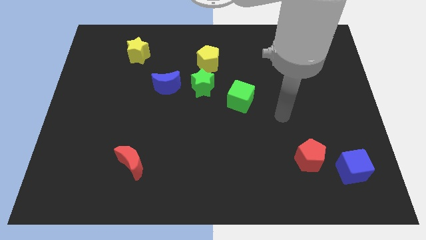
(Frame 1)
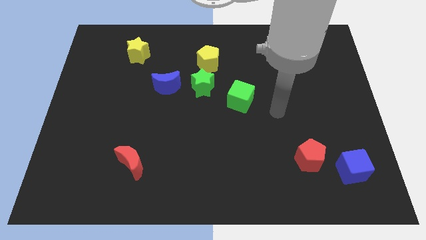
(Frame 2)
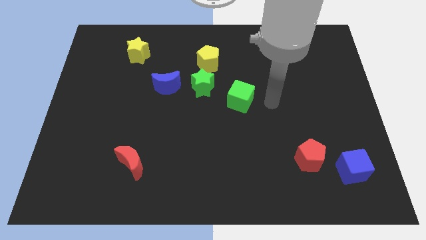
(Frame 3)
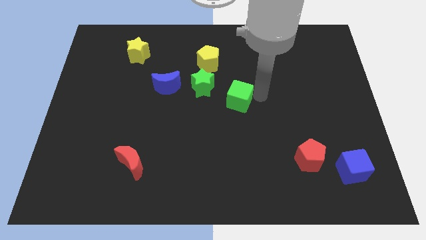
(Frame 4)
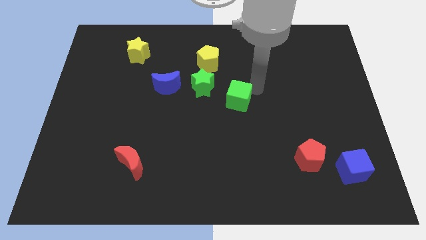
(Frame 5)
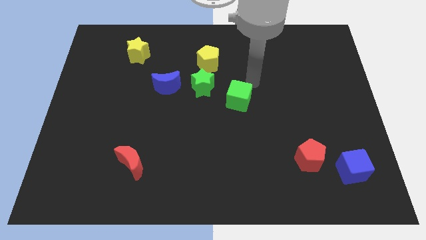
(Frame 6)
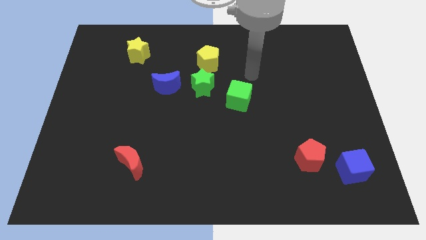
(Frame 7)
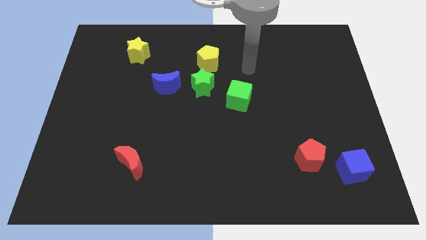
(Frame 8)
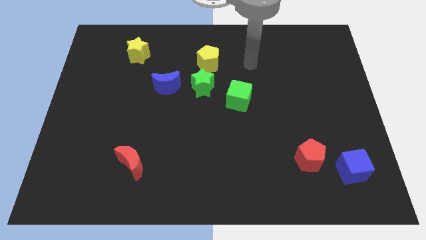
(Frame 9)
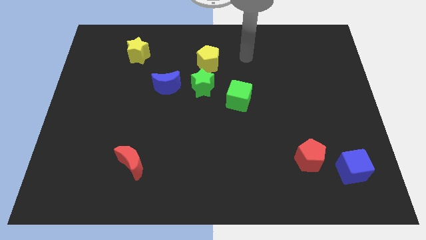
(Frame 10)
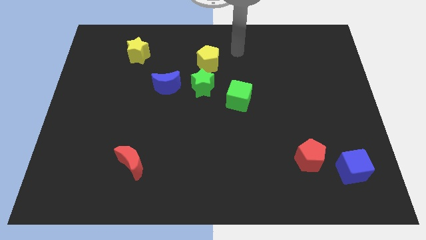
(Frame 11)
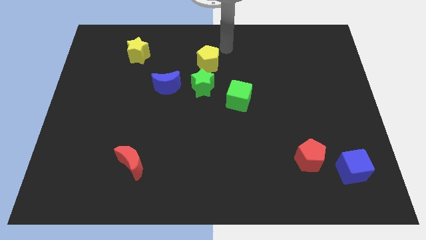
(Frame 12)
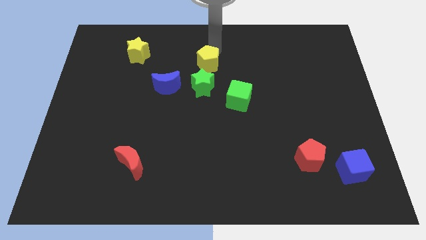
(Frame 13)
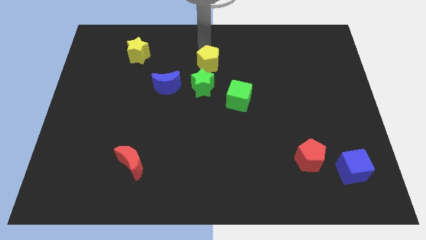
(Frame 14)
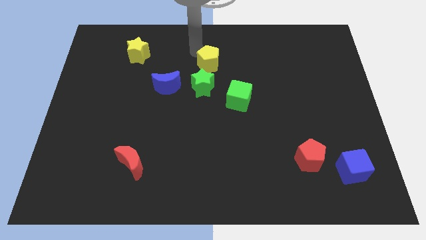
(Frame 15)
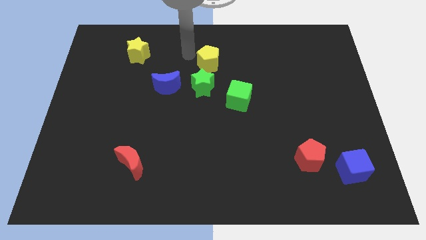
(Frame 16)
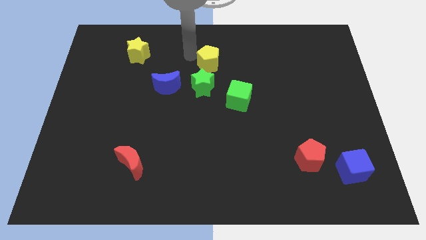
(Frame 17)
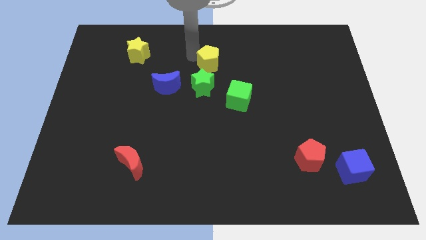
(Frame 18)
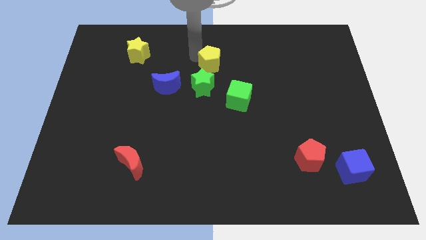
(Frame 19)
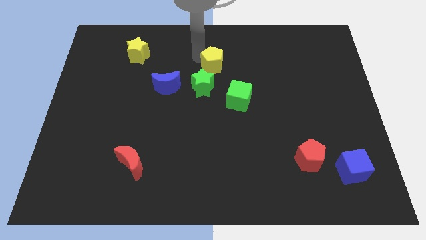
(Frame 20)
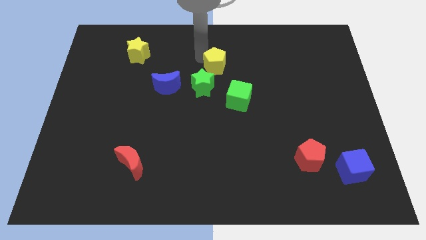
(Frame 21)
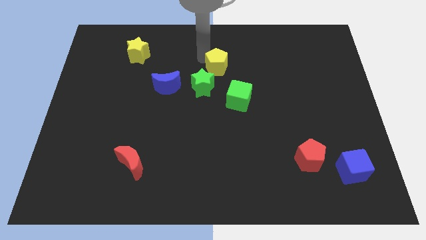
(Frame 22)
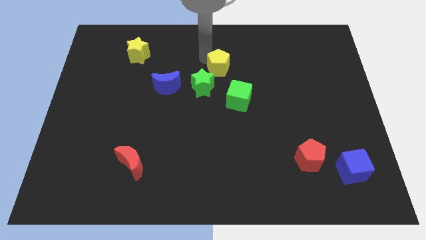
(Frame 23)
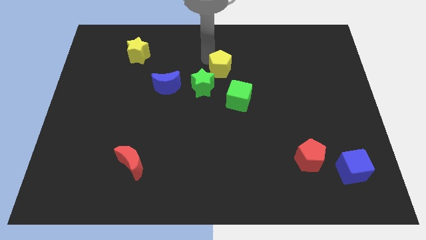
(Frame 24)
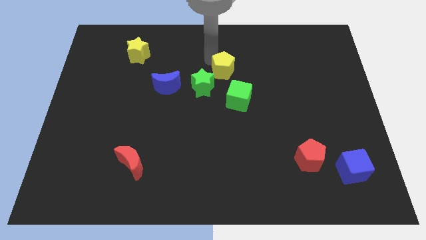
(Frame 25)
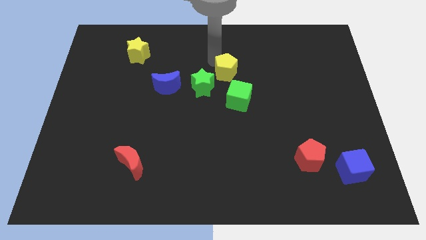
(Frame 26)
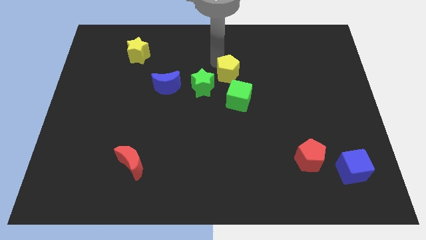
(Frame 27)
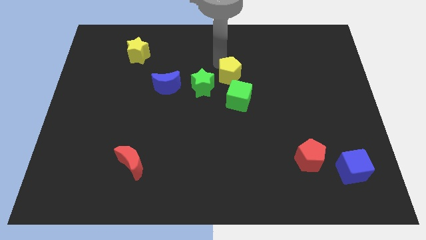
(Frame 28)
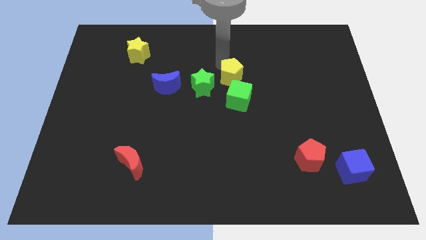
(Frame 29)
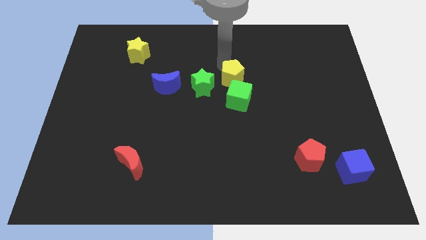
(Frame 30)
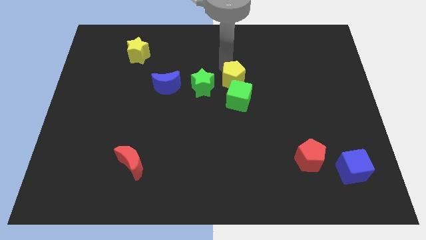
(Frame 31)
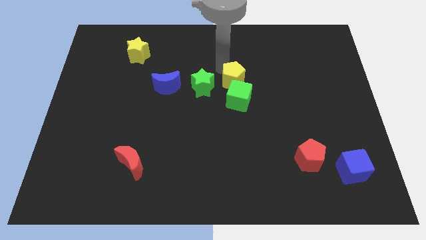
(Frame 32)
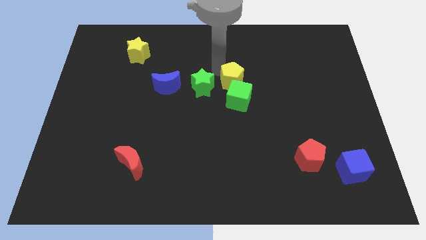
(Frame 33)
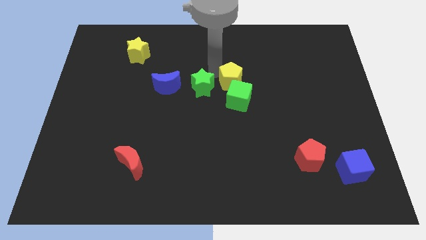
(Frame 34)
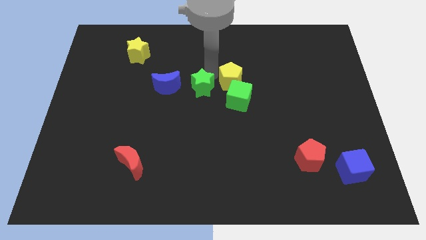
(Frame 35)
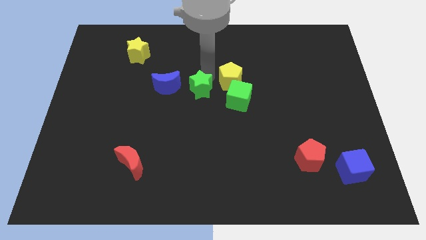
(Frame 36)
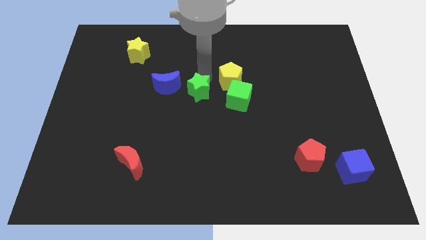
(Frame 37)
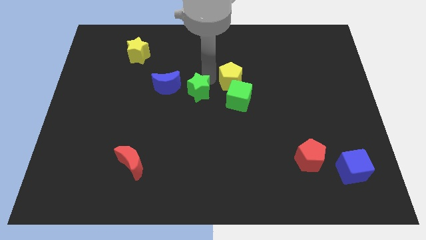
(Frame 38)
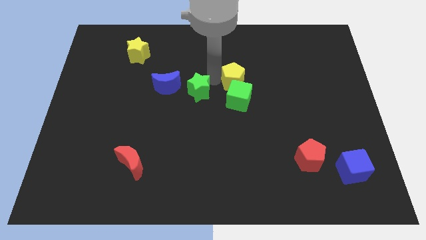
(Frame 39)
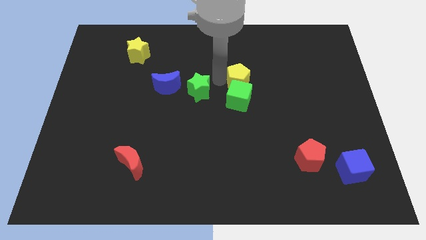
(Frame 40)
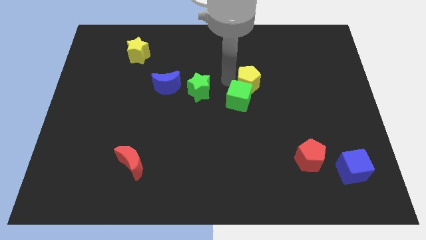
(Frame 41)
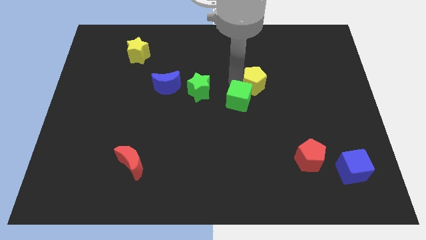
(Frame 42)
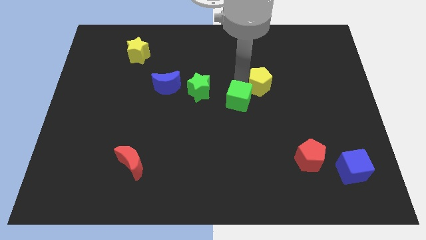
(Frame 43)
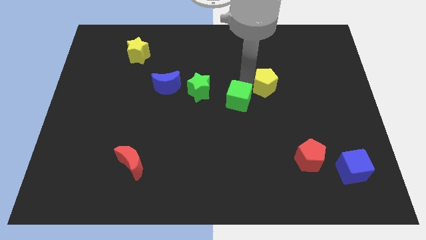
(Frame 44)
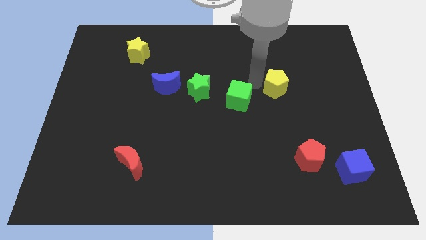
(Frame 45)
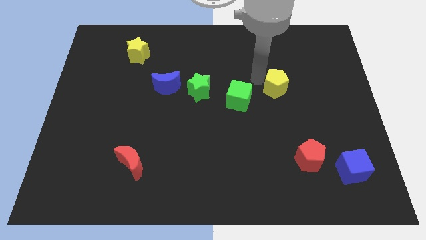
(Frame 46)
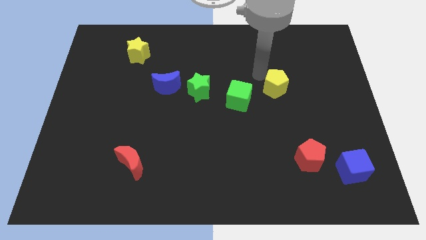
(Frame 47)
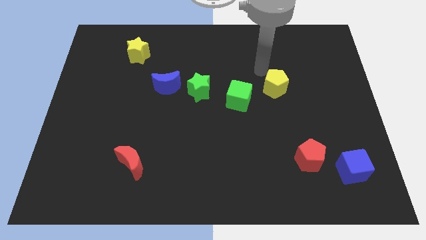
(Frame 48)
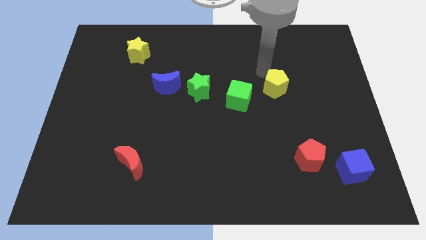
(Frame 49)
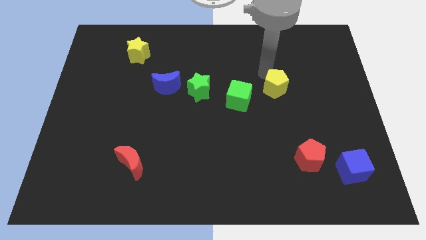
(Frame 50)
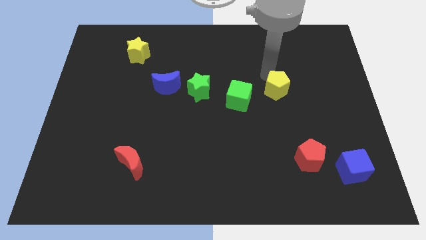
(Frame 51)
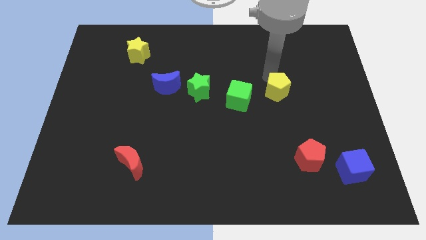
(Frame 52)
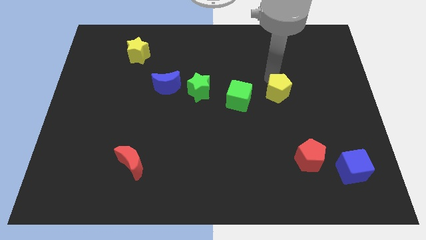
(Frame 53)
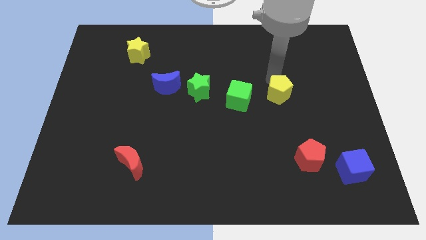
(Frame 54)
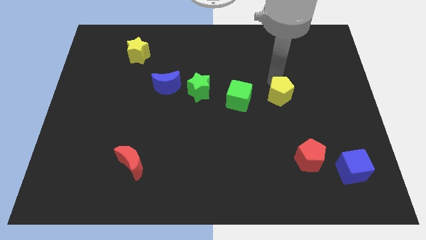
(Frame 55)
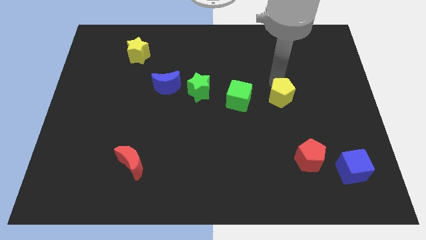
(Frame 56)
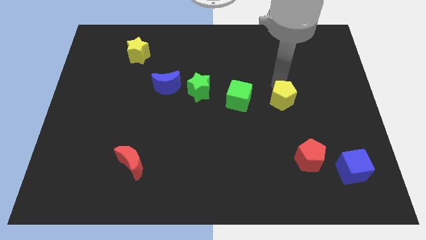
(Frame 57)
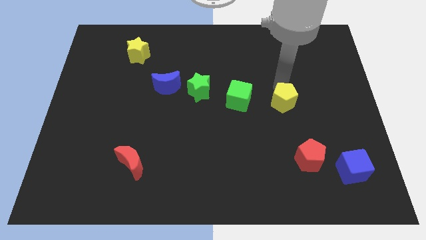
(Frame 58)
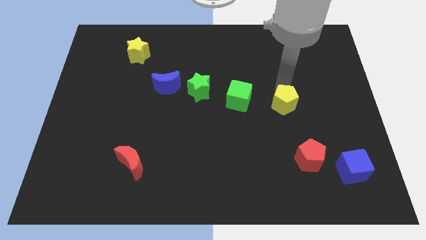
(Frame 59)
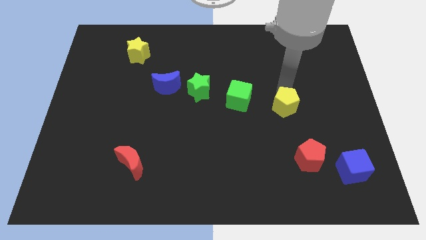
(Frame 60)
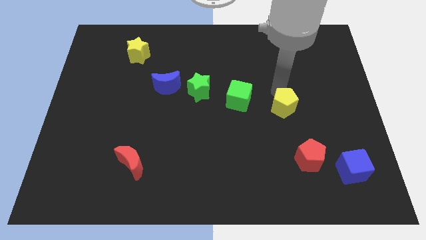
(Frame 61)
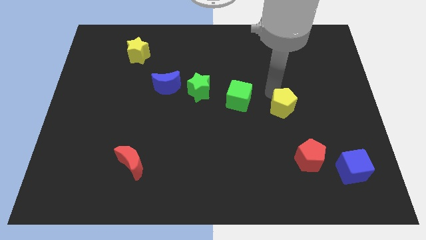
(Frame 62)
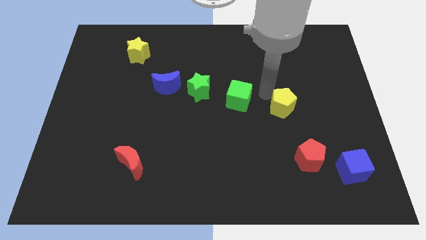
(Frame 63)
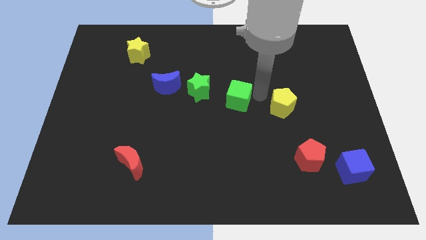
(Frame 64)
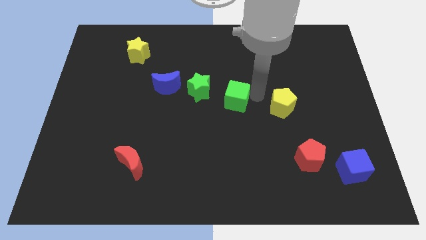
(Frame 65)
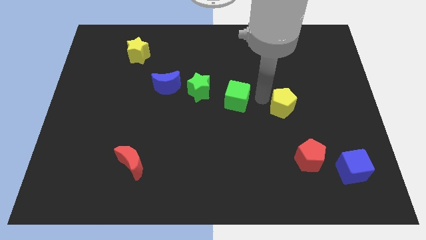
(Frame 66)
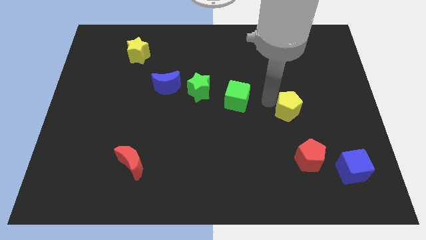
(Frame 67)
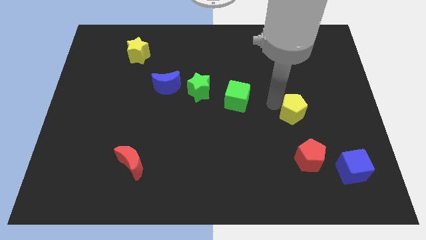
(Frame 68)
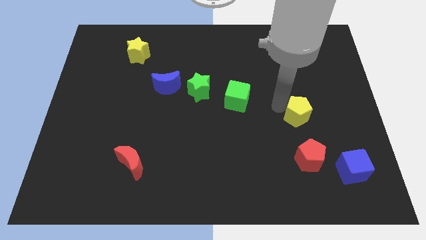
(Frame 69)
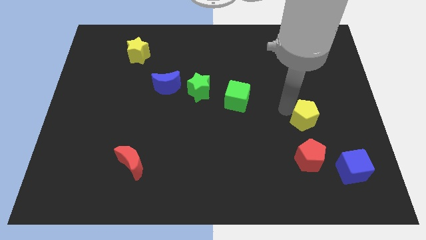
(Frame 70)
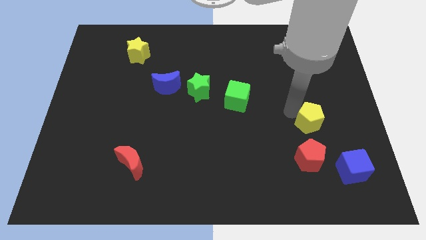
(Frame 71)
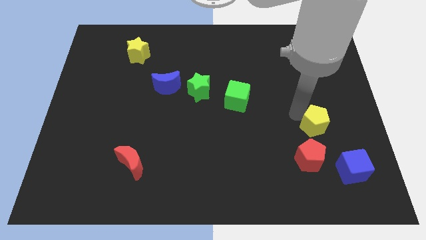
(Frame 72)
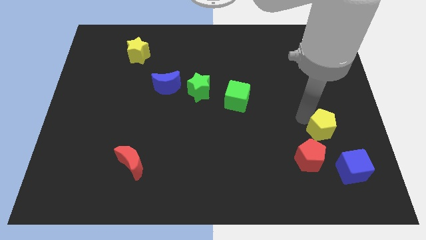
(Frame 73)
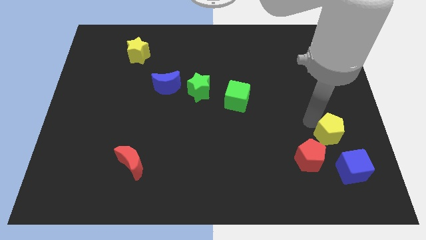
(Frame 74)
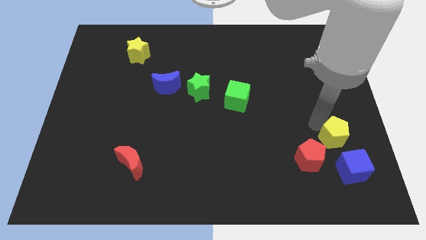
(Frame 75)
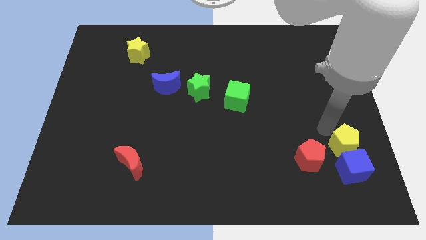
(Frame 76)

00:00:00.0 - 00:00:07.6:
push the yellow pentagon next to the blue cube

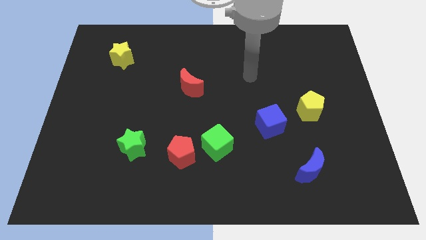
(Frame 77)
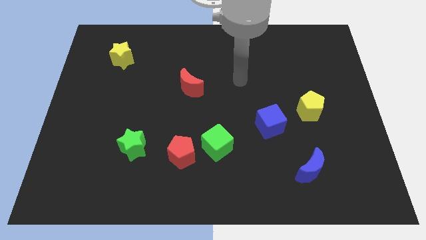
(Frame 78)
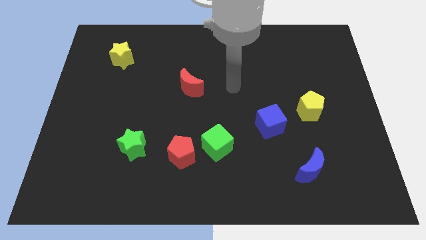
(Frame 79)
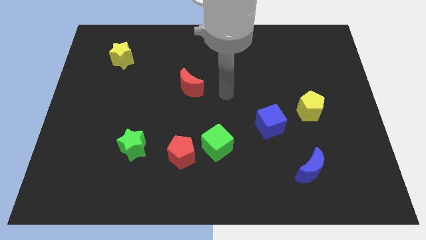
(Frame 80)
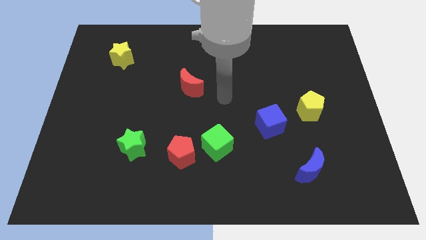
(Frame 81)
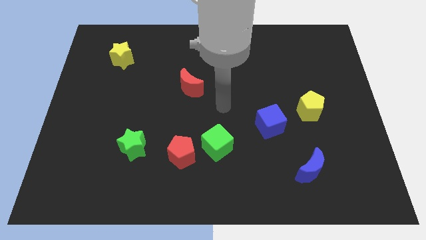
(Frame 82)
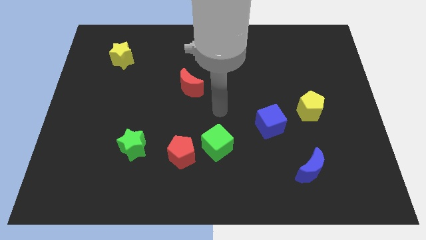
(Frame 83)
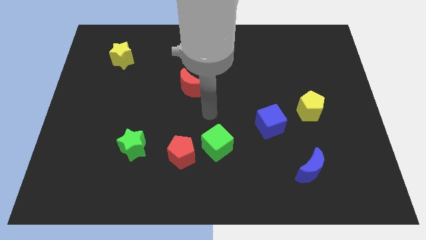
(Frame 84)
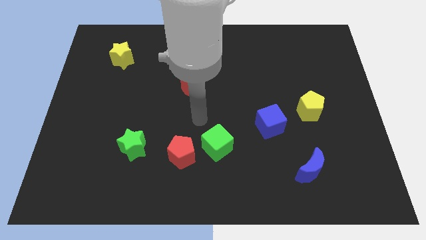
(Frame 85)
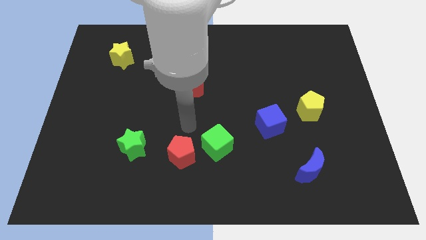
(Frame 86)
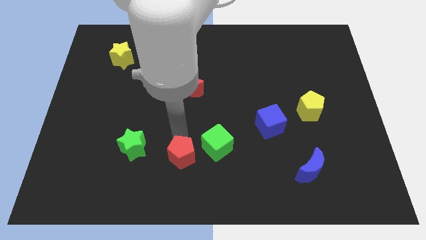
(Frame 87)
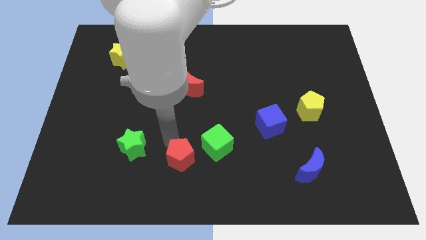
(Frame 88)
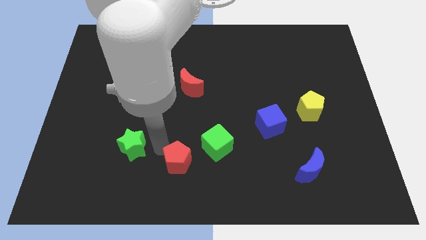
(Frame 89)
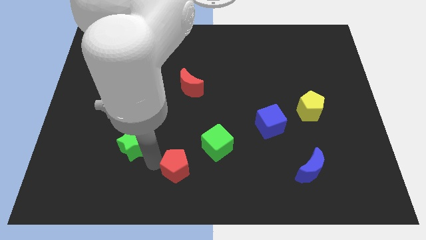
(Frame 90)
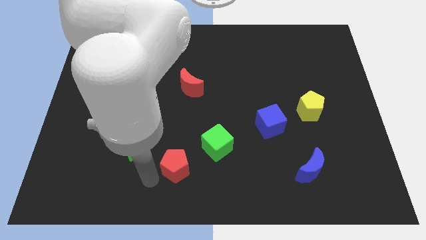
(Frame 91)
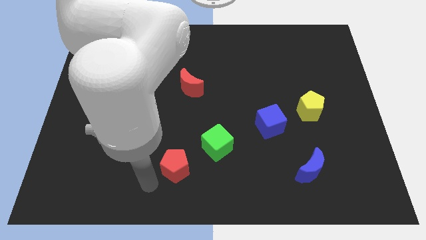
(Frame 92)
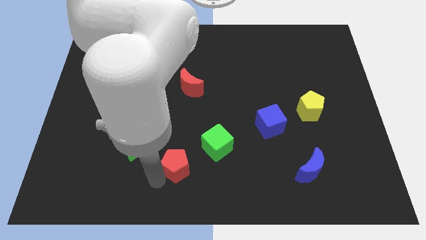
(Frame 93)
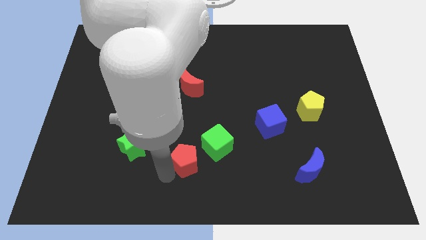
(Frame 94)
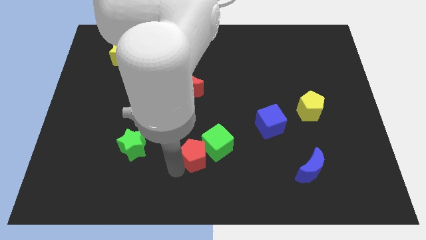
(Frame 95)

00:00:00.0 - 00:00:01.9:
put the red pentagon close to the green cube
